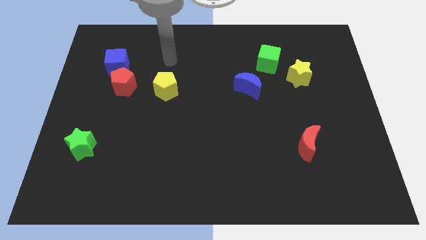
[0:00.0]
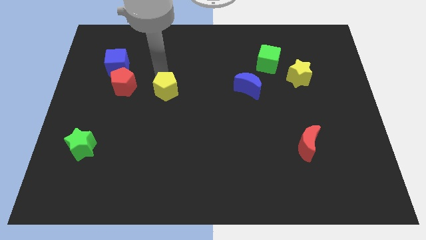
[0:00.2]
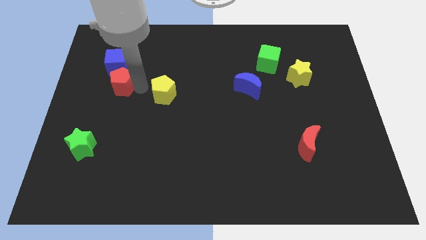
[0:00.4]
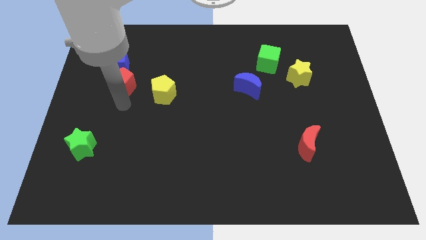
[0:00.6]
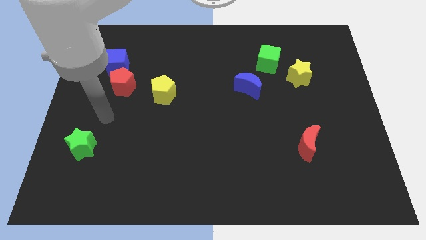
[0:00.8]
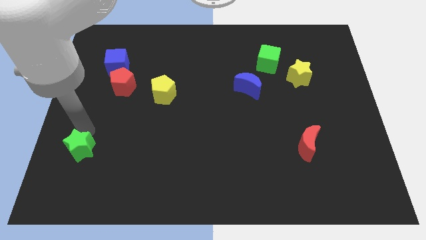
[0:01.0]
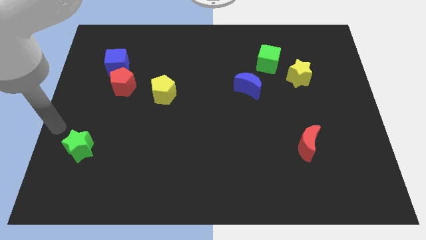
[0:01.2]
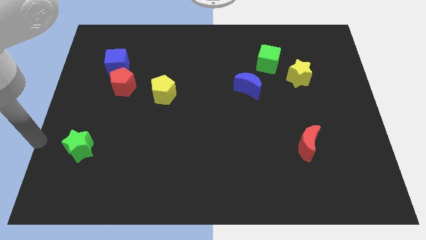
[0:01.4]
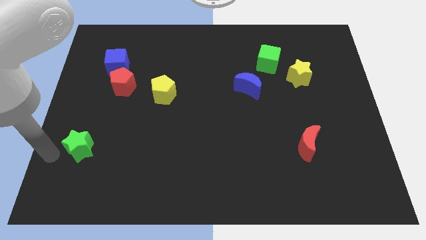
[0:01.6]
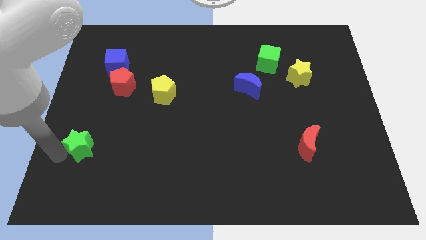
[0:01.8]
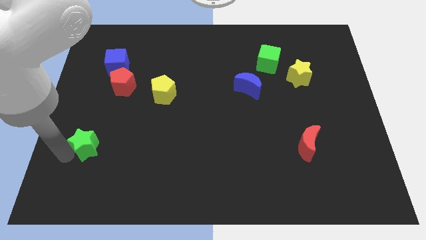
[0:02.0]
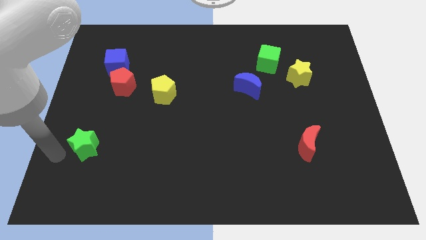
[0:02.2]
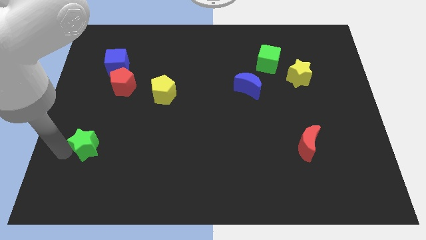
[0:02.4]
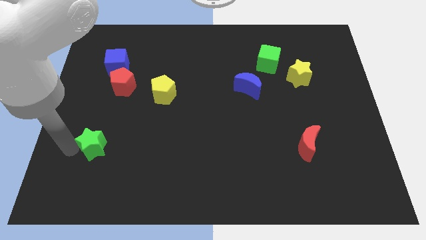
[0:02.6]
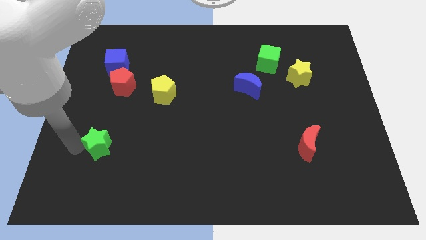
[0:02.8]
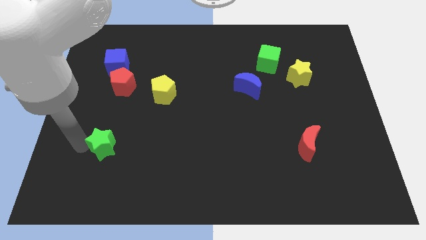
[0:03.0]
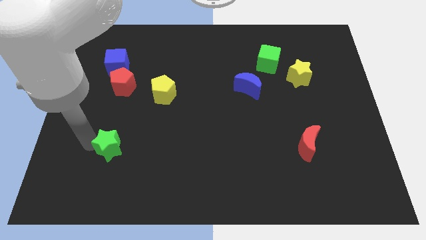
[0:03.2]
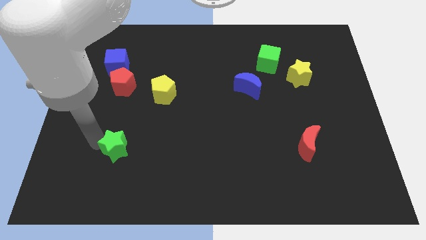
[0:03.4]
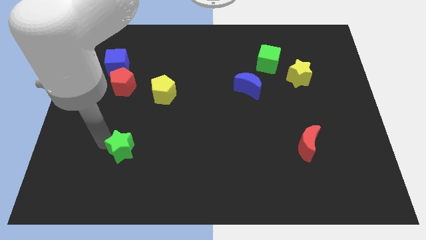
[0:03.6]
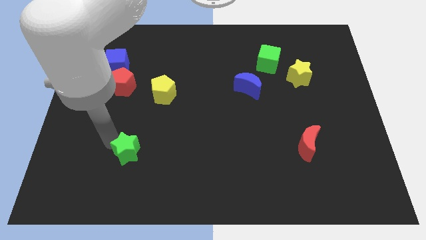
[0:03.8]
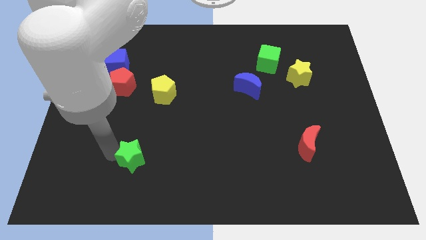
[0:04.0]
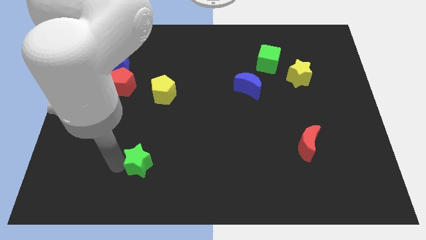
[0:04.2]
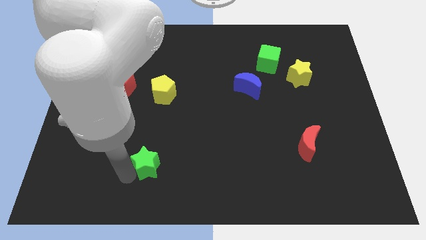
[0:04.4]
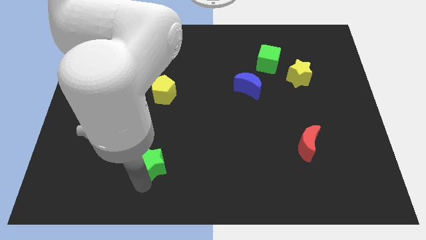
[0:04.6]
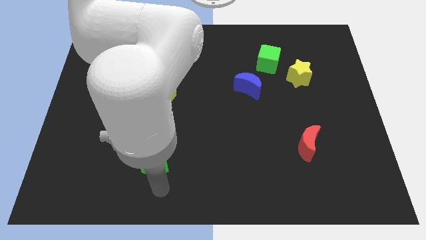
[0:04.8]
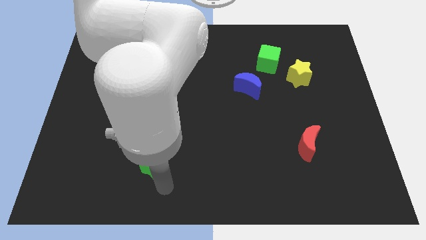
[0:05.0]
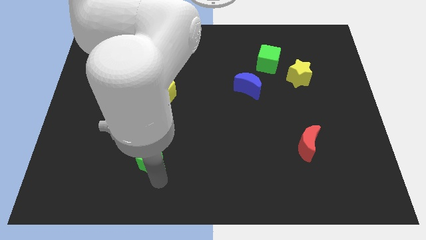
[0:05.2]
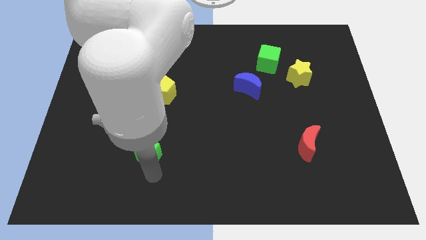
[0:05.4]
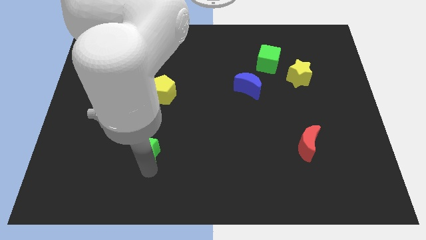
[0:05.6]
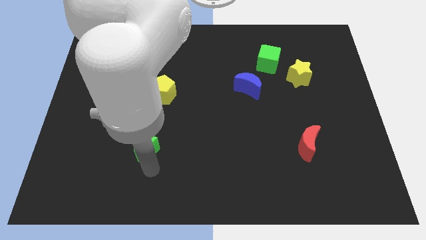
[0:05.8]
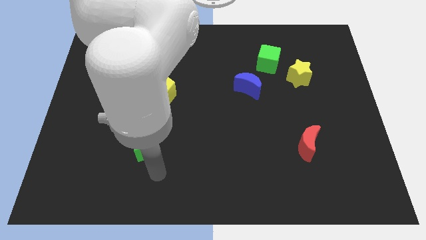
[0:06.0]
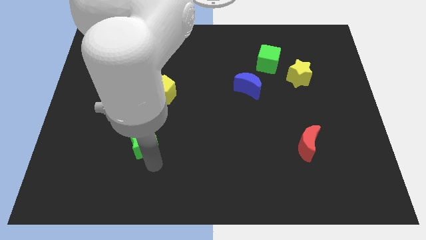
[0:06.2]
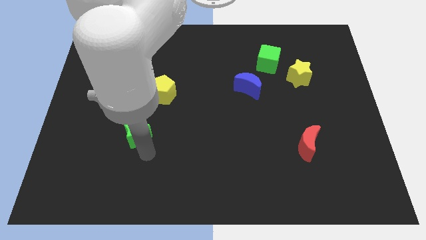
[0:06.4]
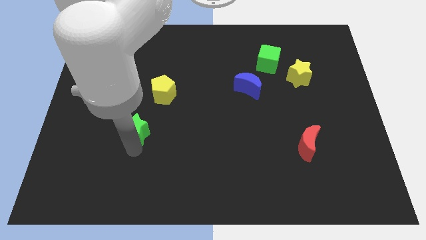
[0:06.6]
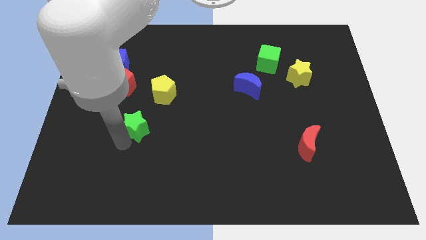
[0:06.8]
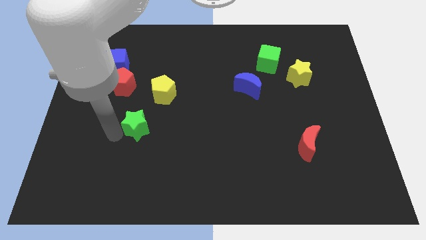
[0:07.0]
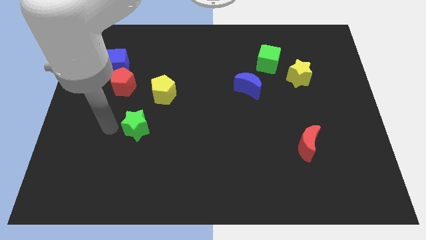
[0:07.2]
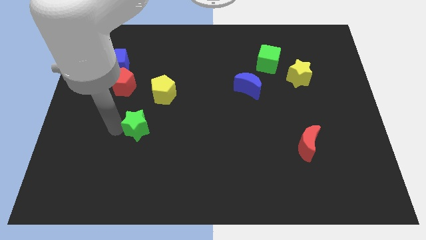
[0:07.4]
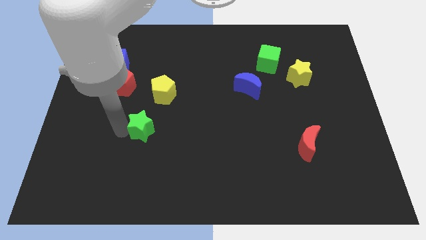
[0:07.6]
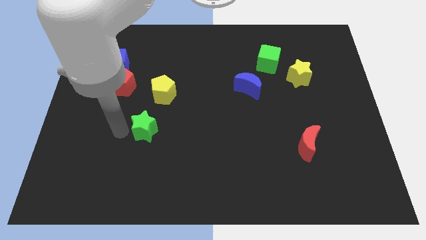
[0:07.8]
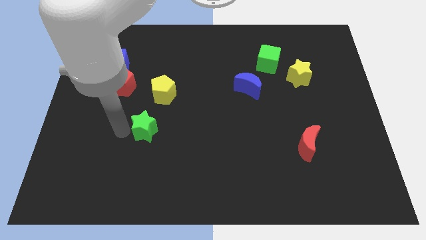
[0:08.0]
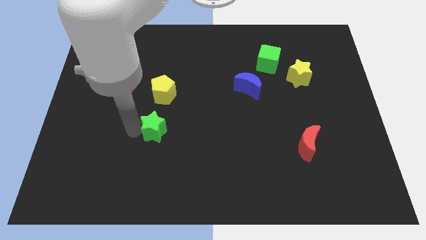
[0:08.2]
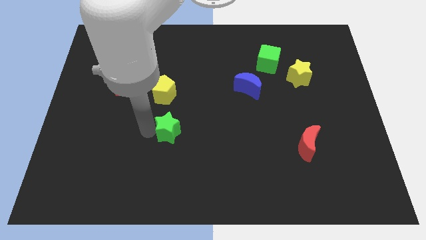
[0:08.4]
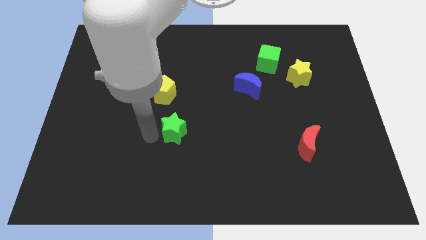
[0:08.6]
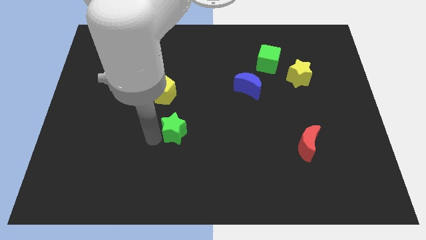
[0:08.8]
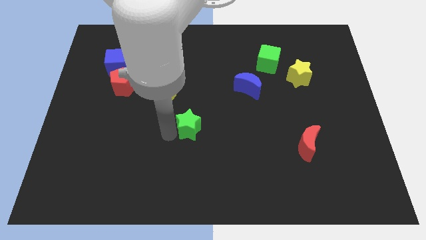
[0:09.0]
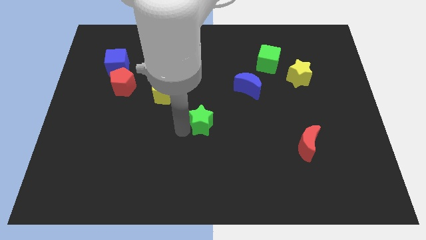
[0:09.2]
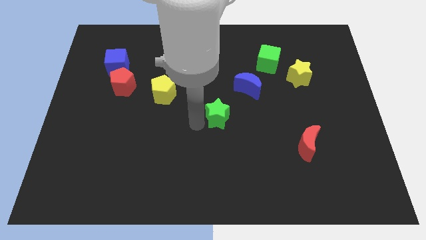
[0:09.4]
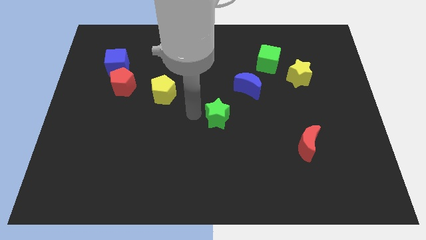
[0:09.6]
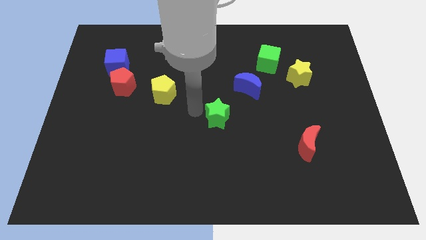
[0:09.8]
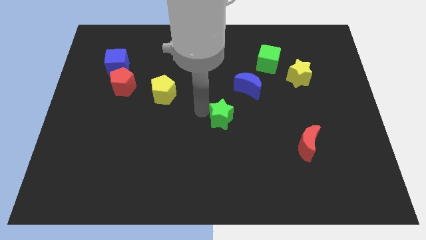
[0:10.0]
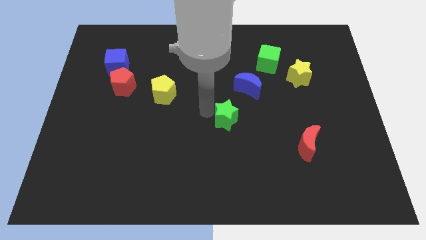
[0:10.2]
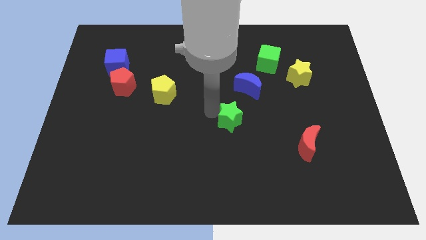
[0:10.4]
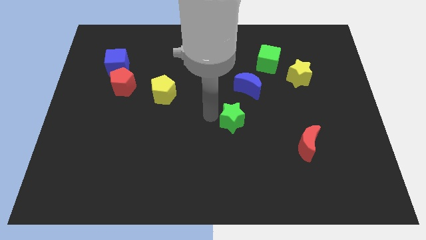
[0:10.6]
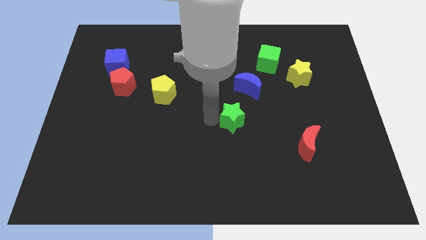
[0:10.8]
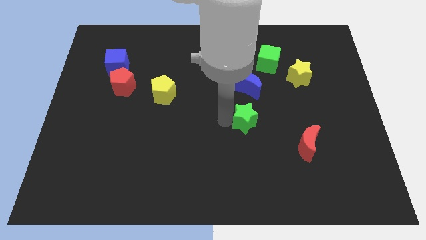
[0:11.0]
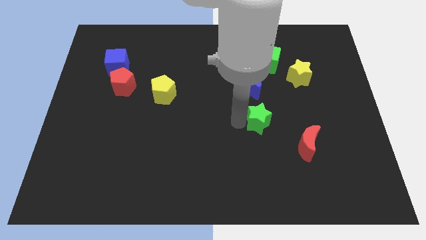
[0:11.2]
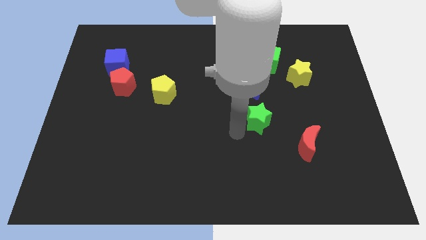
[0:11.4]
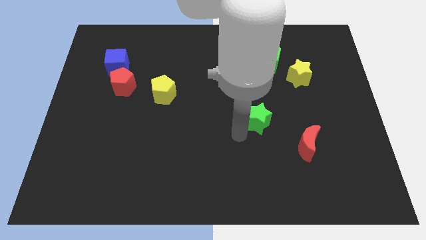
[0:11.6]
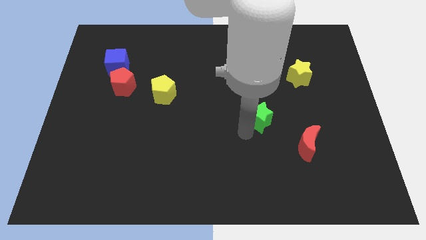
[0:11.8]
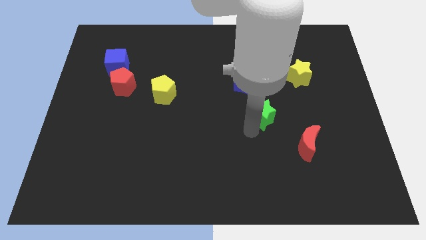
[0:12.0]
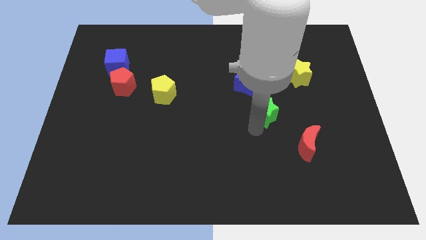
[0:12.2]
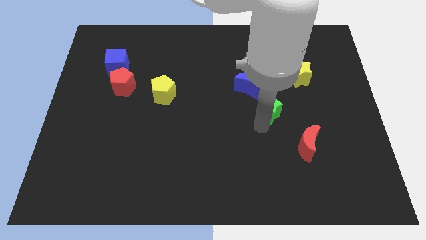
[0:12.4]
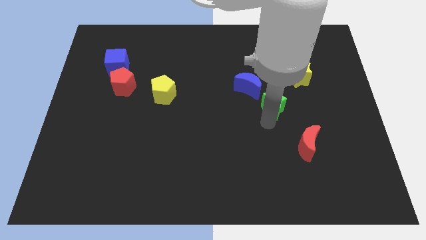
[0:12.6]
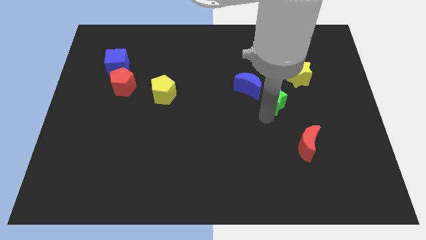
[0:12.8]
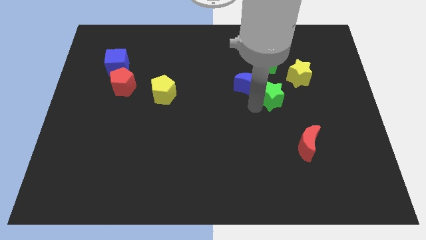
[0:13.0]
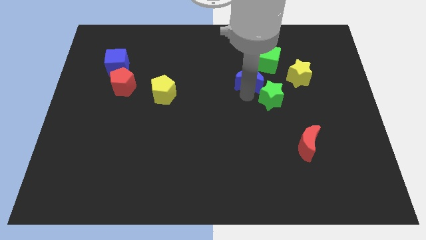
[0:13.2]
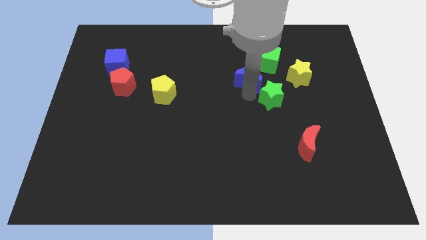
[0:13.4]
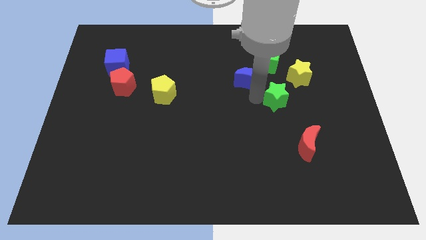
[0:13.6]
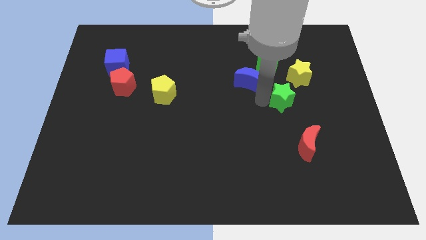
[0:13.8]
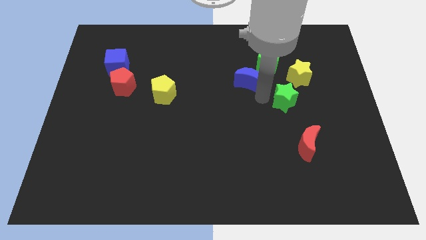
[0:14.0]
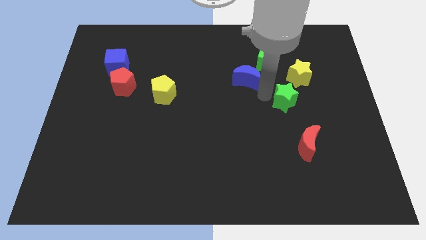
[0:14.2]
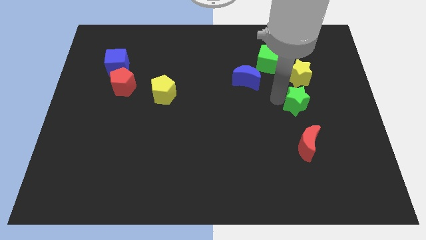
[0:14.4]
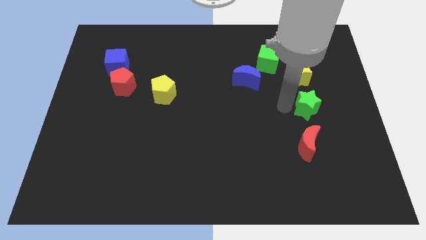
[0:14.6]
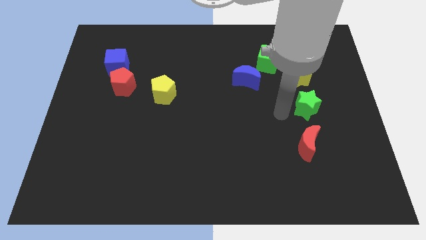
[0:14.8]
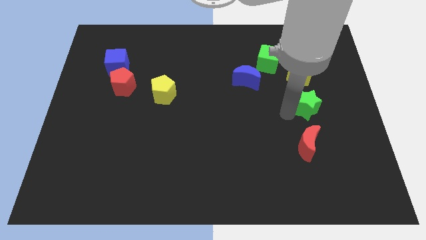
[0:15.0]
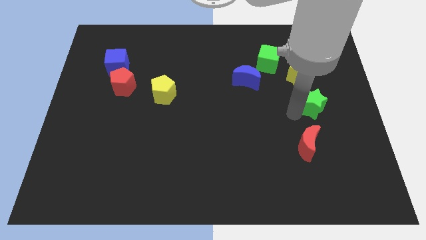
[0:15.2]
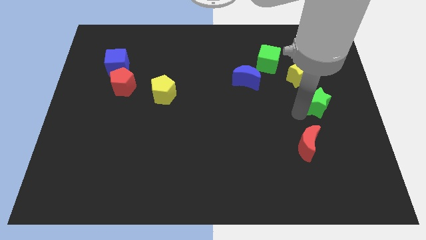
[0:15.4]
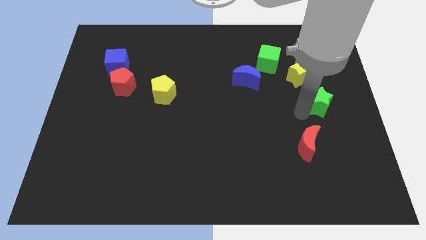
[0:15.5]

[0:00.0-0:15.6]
move the green star to the center right
